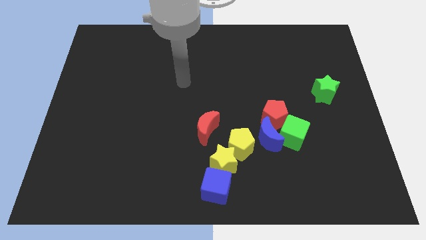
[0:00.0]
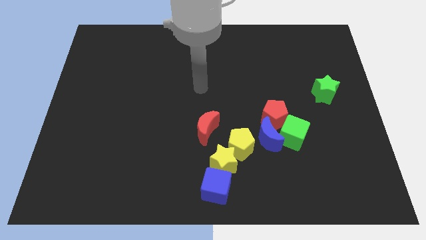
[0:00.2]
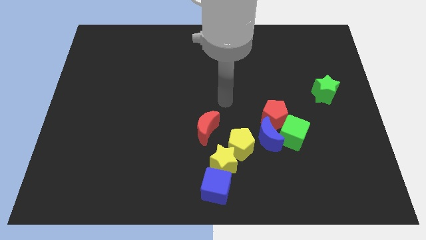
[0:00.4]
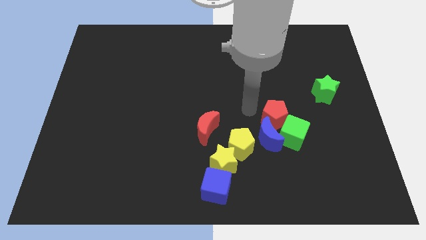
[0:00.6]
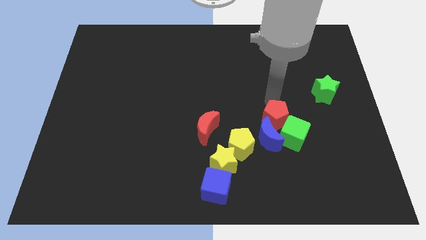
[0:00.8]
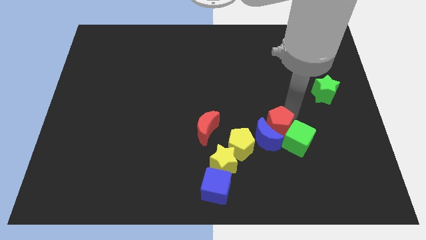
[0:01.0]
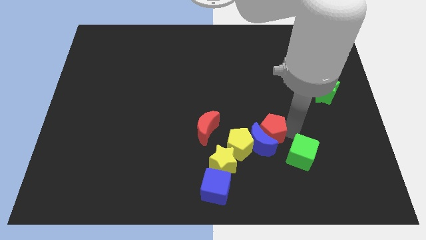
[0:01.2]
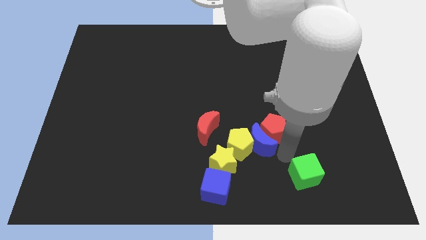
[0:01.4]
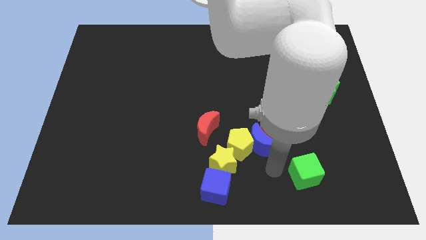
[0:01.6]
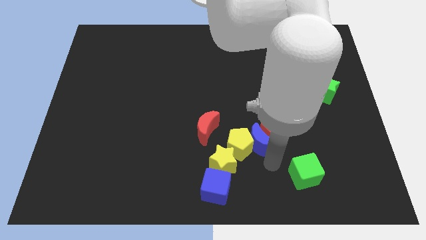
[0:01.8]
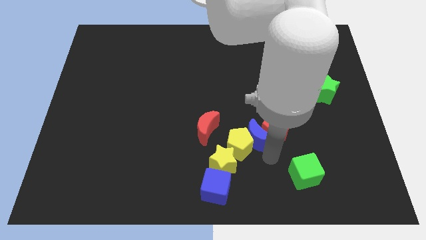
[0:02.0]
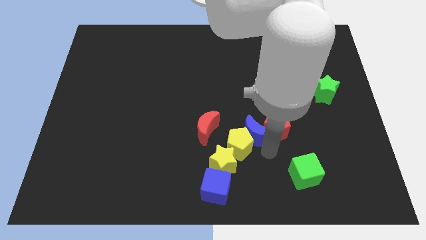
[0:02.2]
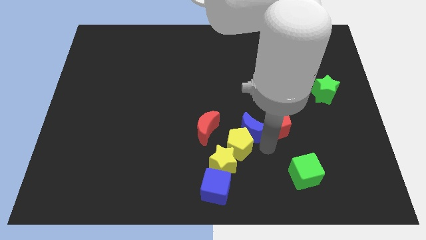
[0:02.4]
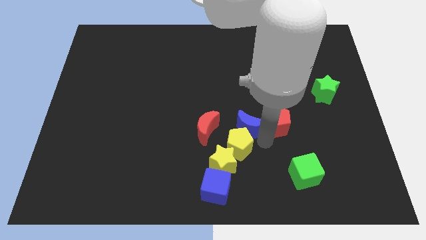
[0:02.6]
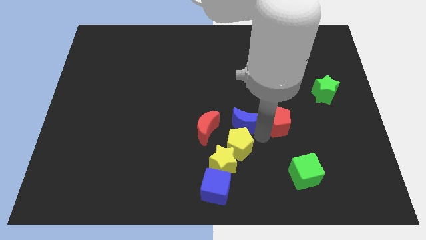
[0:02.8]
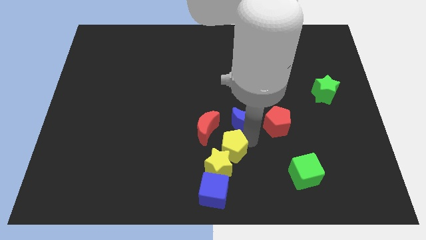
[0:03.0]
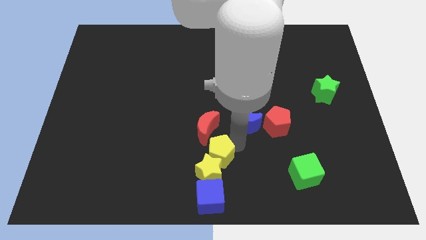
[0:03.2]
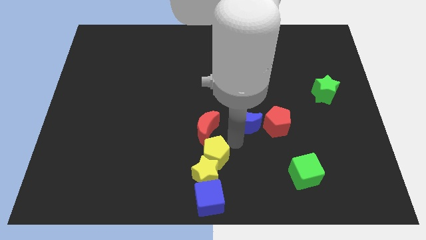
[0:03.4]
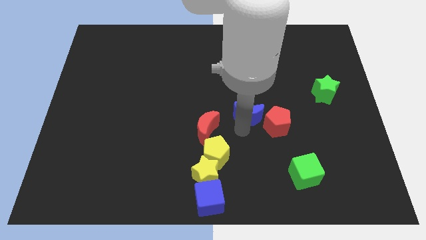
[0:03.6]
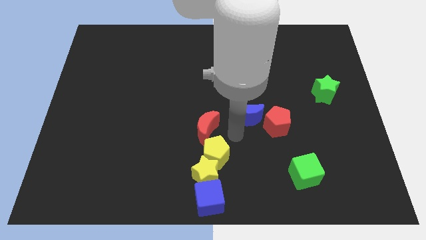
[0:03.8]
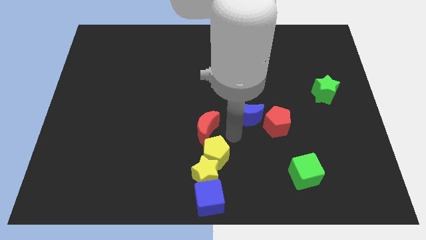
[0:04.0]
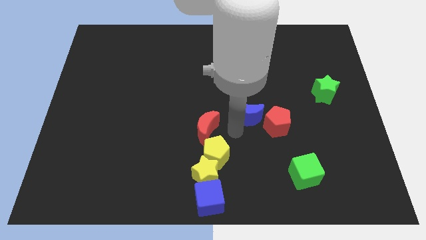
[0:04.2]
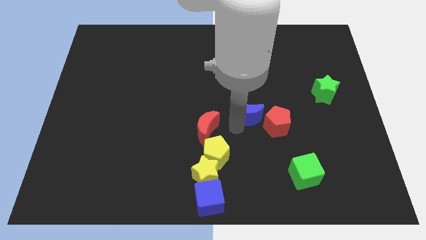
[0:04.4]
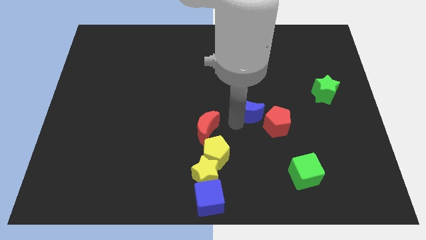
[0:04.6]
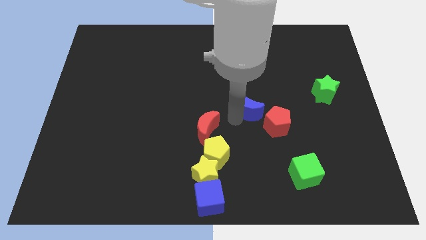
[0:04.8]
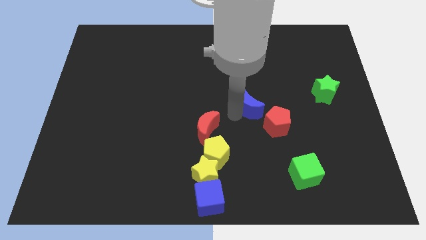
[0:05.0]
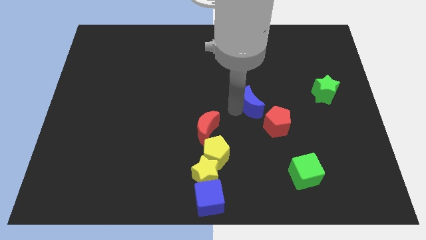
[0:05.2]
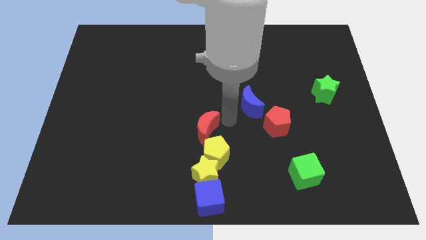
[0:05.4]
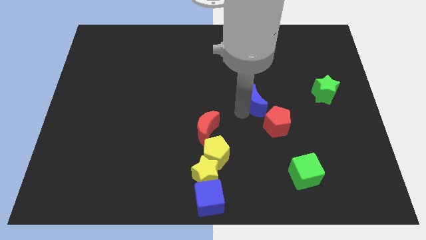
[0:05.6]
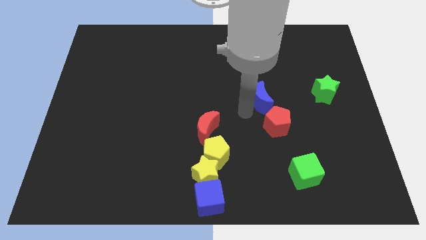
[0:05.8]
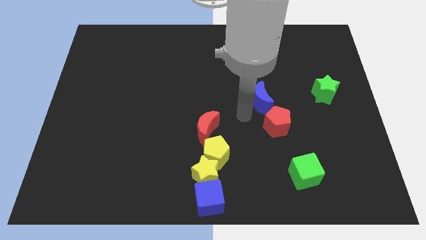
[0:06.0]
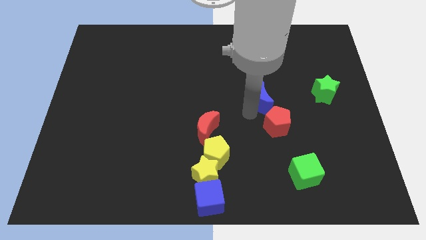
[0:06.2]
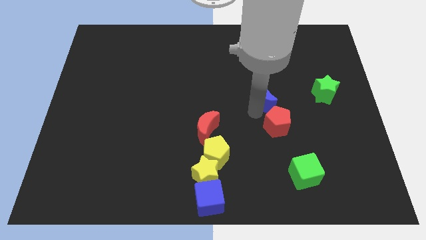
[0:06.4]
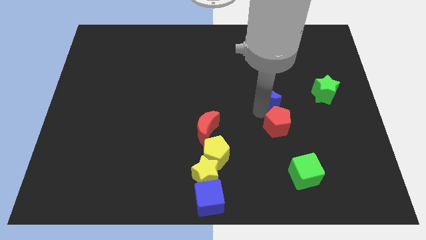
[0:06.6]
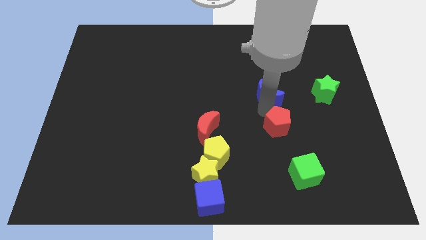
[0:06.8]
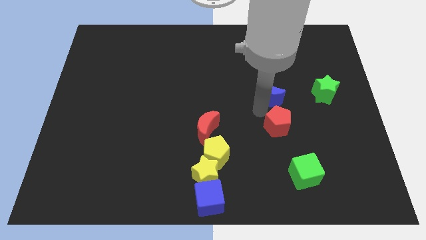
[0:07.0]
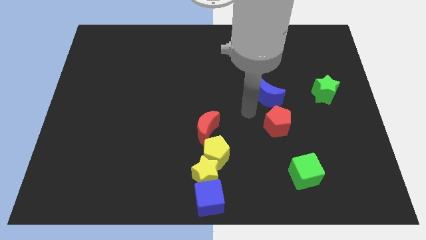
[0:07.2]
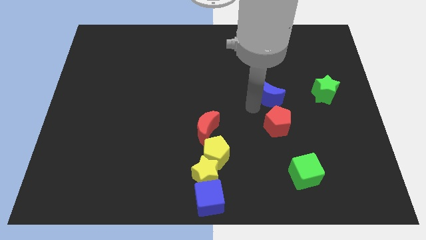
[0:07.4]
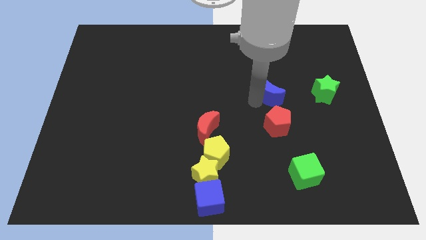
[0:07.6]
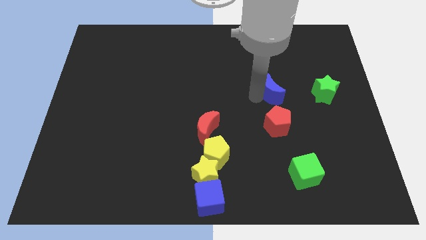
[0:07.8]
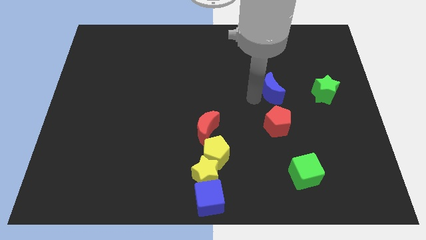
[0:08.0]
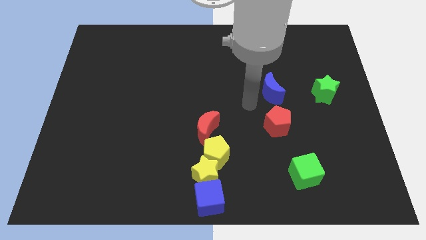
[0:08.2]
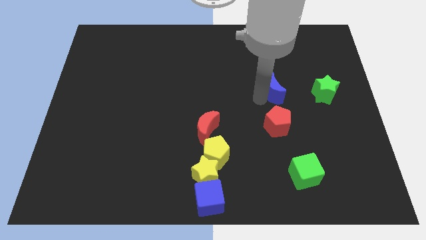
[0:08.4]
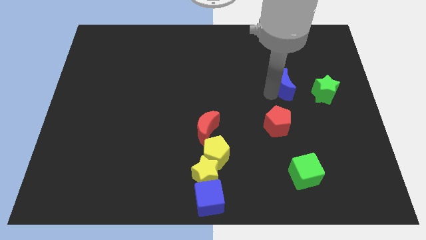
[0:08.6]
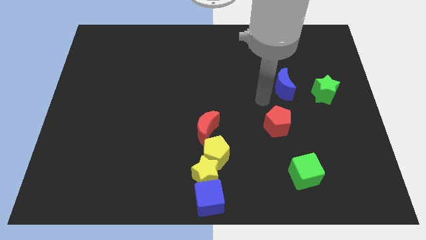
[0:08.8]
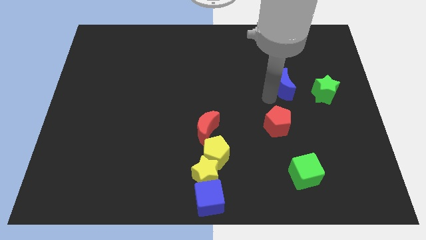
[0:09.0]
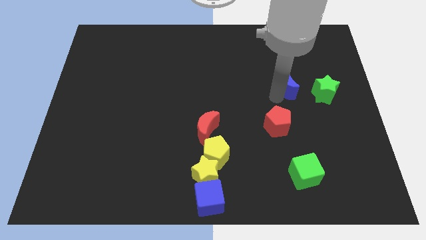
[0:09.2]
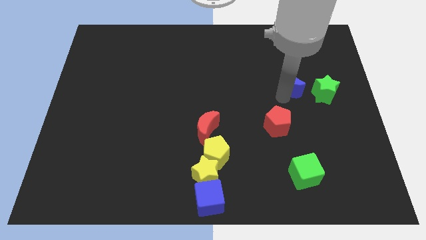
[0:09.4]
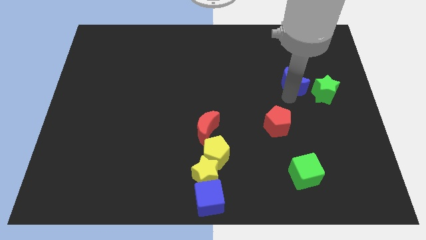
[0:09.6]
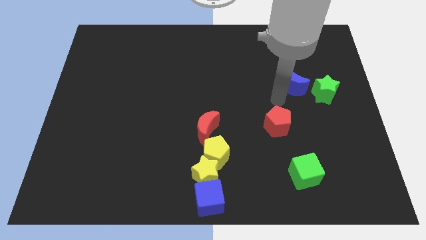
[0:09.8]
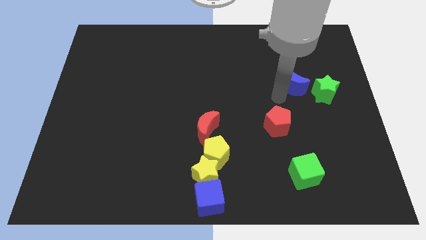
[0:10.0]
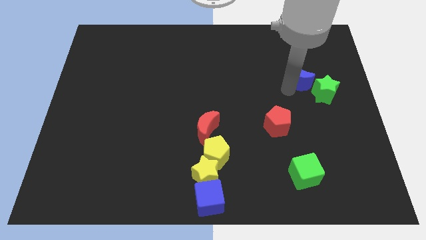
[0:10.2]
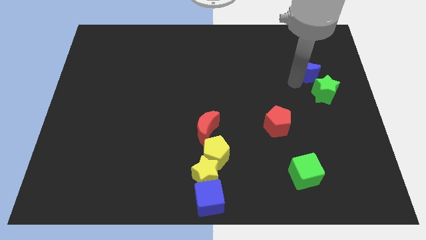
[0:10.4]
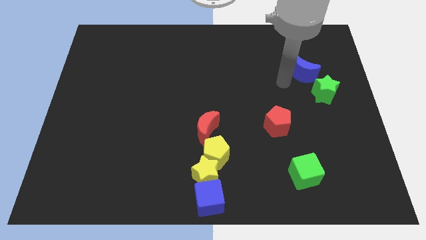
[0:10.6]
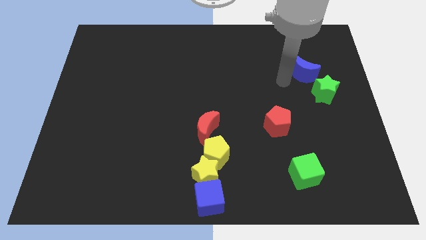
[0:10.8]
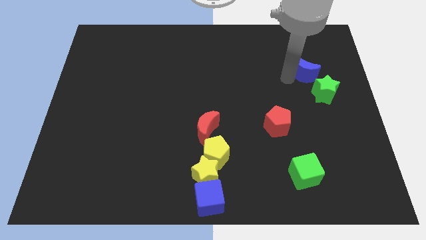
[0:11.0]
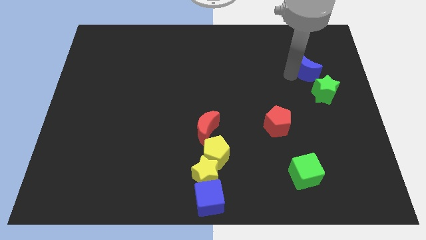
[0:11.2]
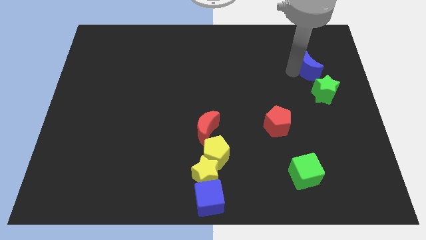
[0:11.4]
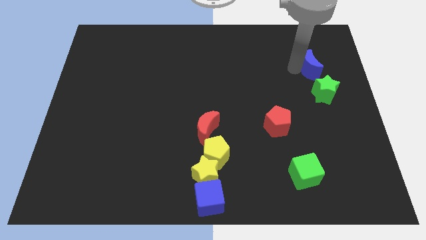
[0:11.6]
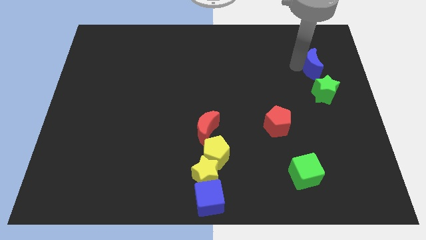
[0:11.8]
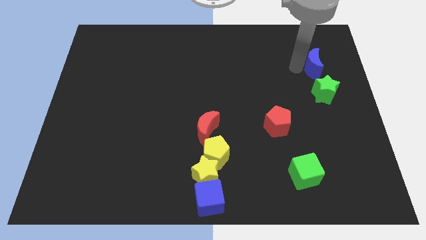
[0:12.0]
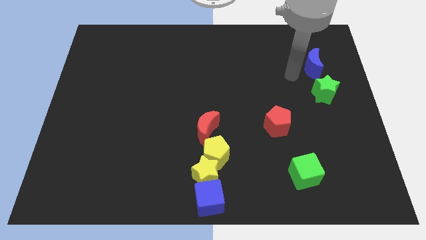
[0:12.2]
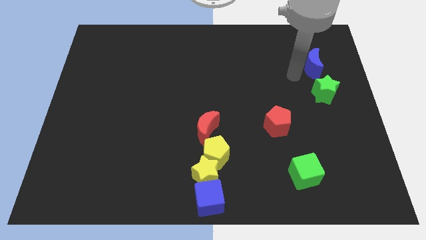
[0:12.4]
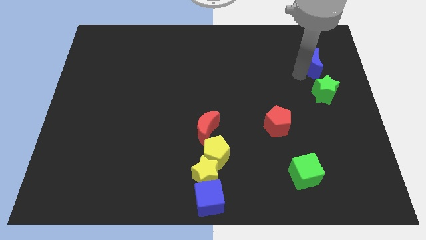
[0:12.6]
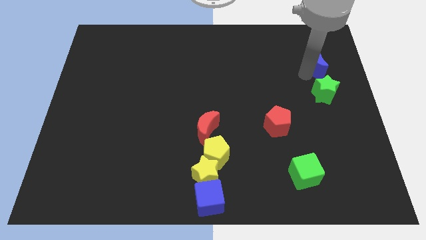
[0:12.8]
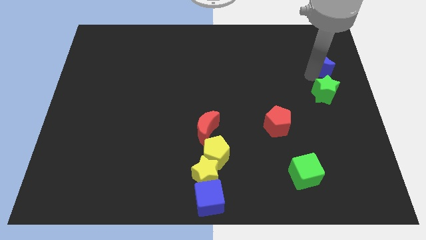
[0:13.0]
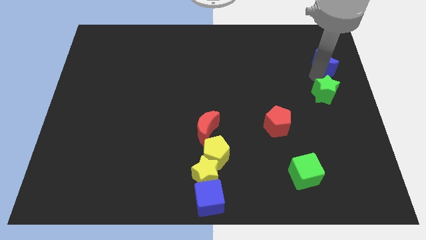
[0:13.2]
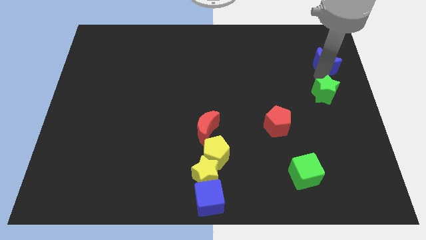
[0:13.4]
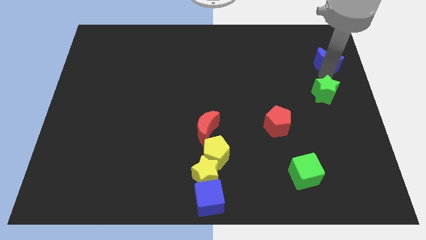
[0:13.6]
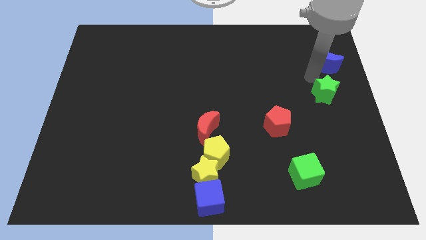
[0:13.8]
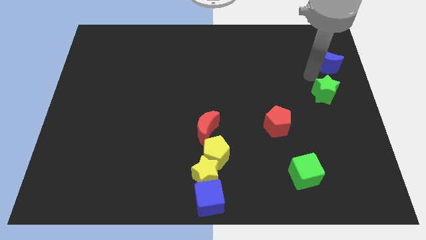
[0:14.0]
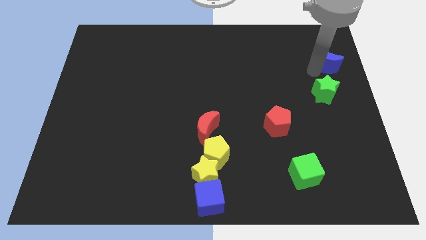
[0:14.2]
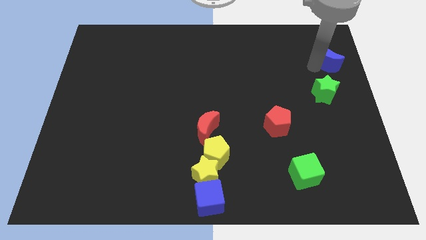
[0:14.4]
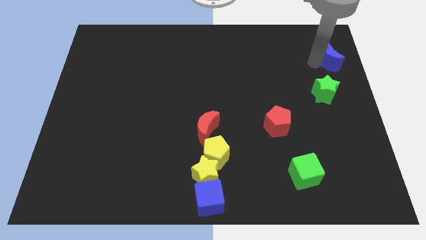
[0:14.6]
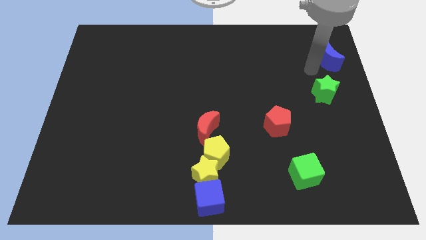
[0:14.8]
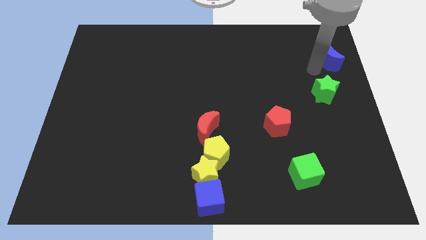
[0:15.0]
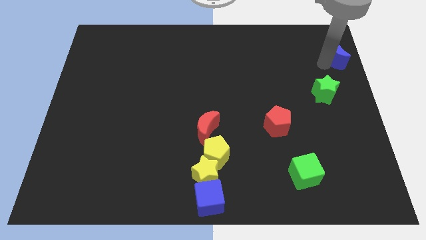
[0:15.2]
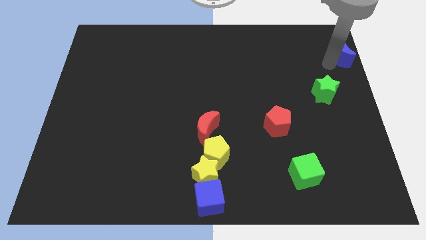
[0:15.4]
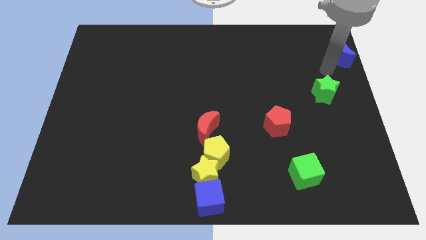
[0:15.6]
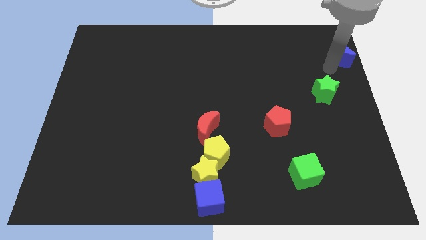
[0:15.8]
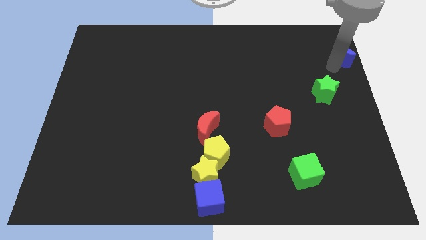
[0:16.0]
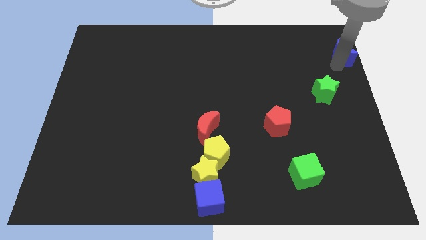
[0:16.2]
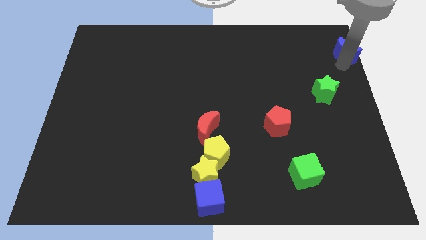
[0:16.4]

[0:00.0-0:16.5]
push the blue moon to the top right of the board
